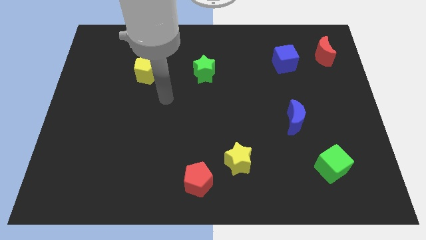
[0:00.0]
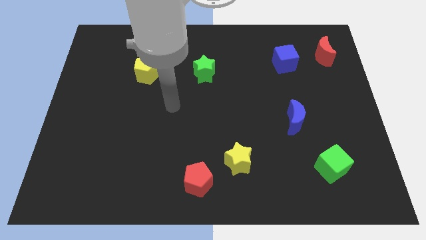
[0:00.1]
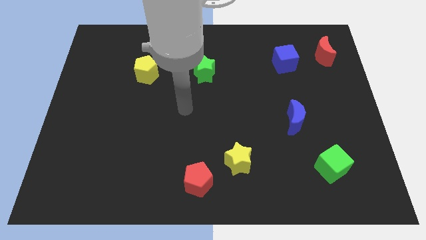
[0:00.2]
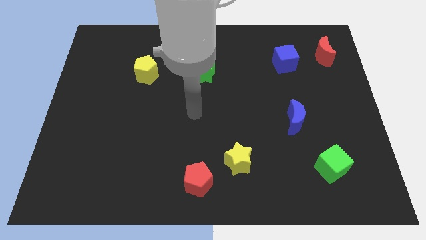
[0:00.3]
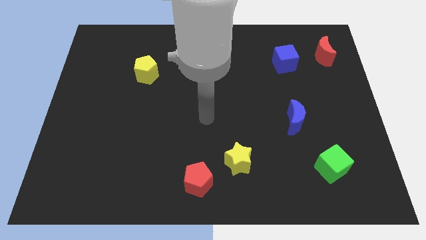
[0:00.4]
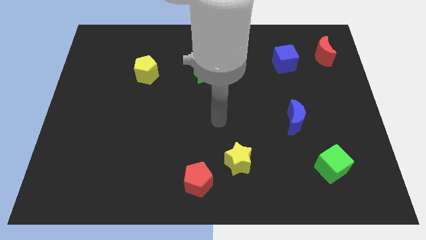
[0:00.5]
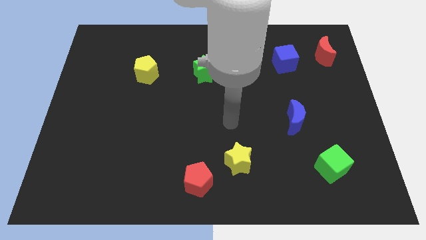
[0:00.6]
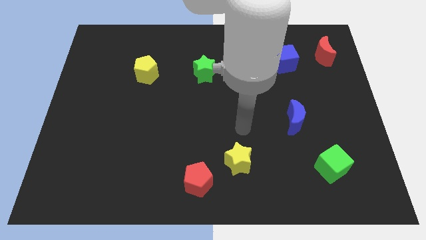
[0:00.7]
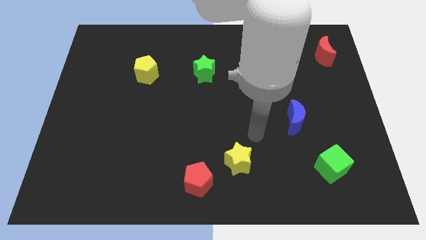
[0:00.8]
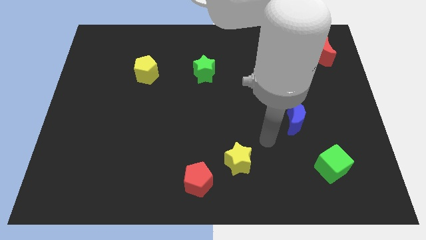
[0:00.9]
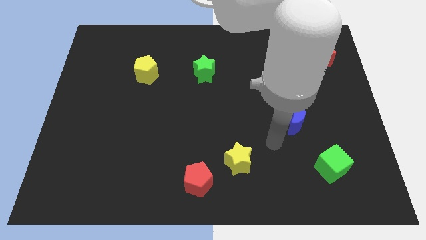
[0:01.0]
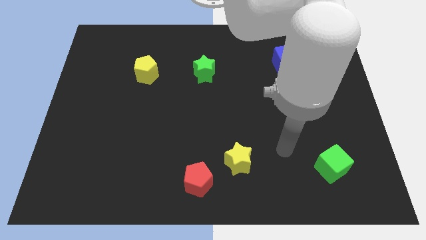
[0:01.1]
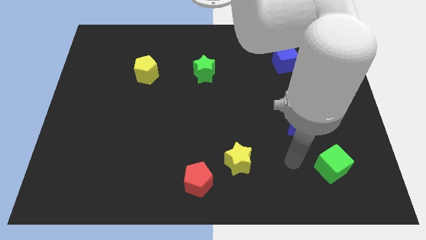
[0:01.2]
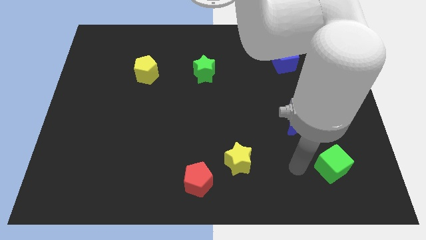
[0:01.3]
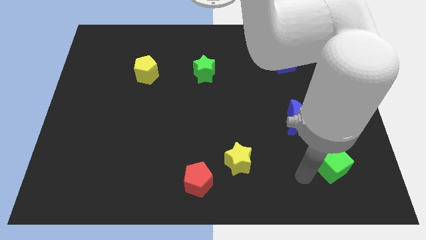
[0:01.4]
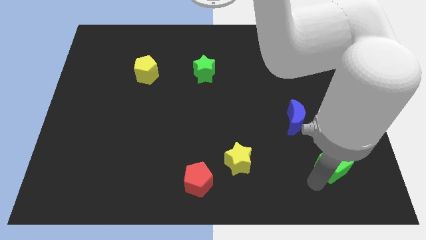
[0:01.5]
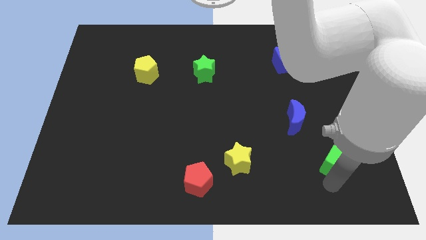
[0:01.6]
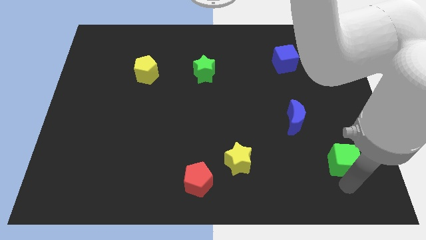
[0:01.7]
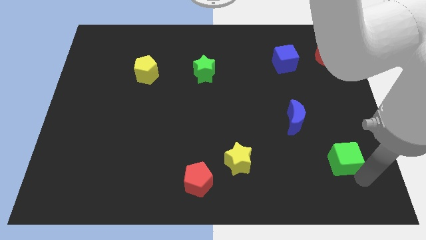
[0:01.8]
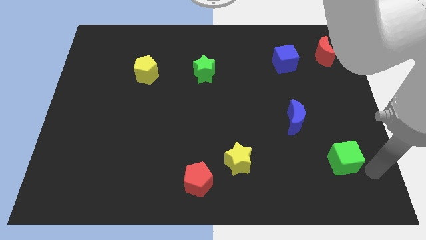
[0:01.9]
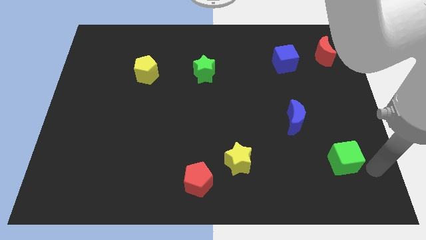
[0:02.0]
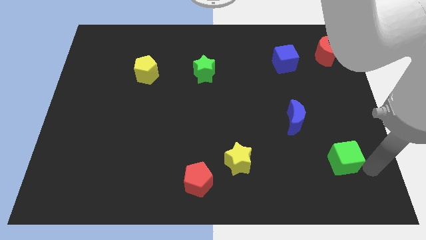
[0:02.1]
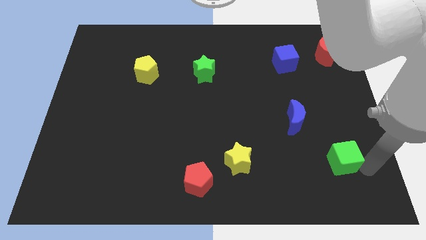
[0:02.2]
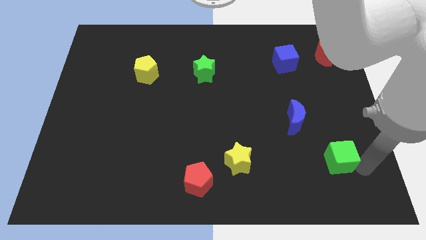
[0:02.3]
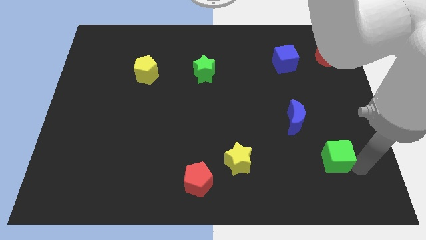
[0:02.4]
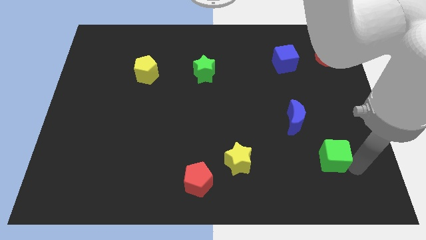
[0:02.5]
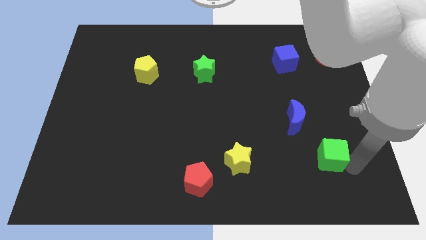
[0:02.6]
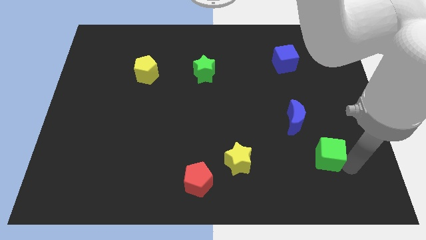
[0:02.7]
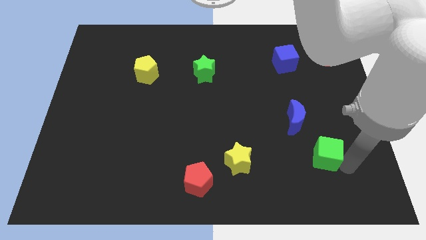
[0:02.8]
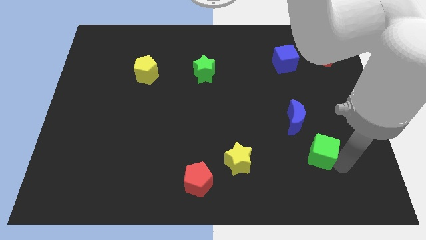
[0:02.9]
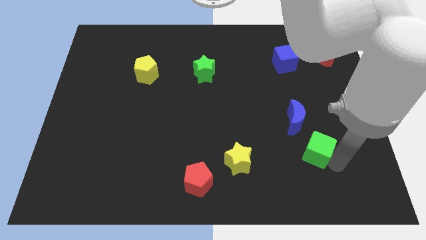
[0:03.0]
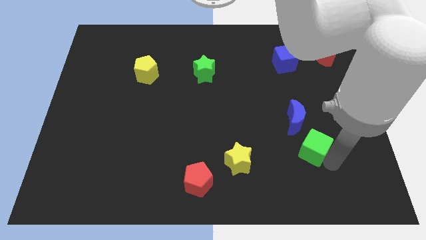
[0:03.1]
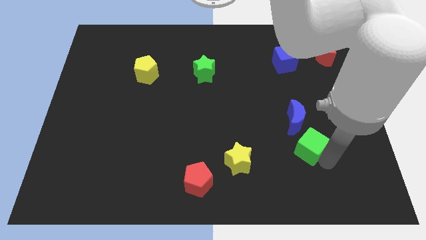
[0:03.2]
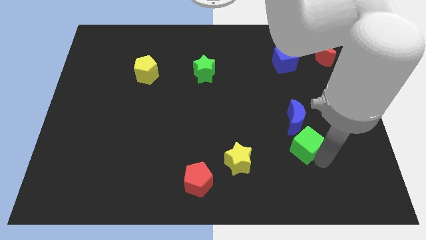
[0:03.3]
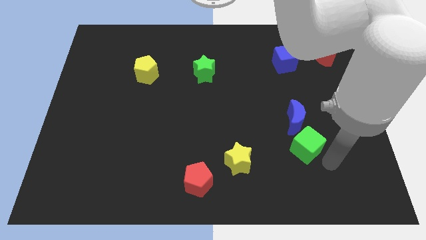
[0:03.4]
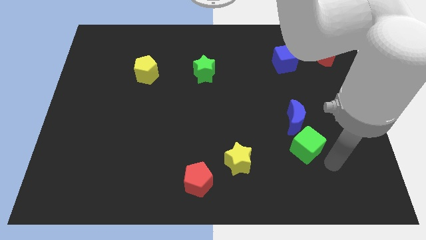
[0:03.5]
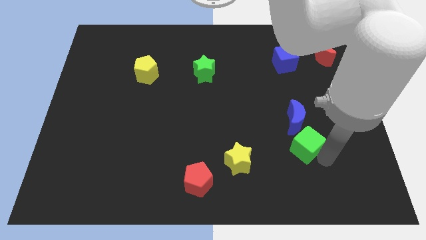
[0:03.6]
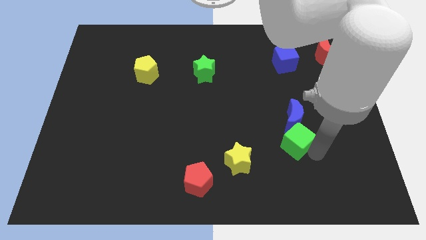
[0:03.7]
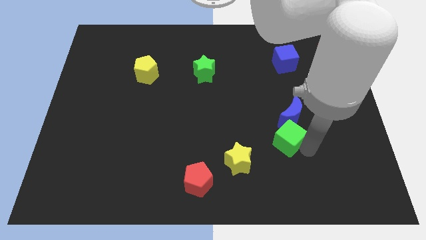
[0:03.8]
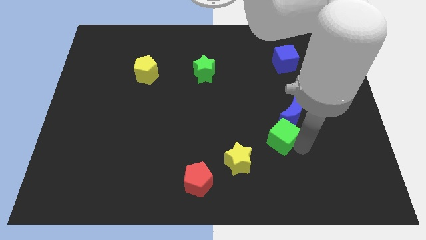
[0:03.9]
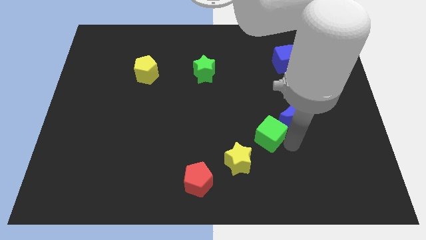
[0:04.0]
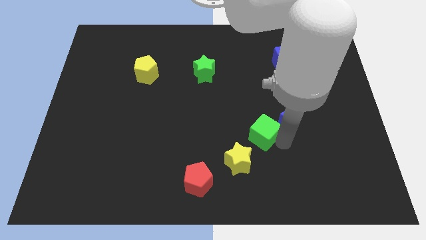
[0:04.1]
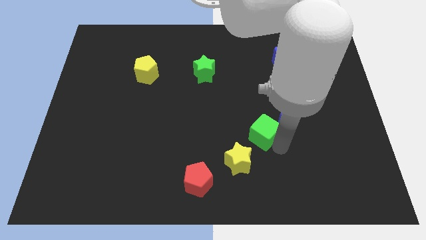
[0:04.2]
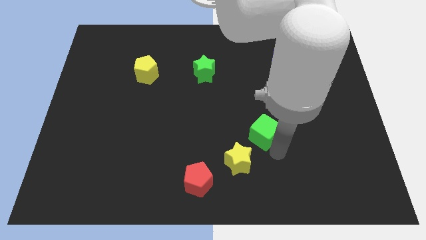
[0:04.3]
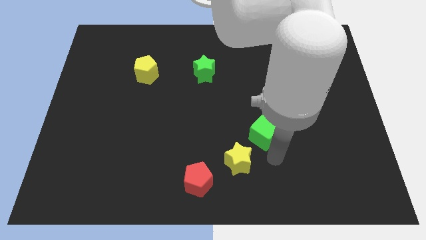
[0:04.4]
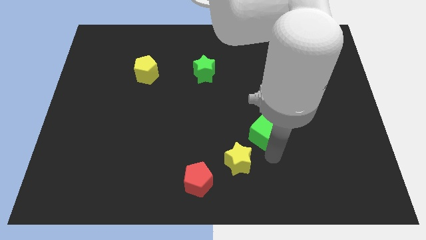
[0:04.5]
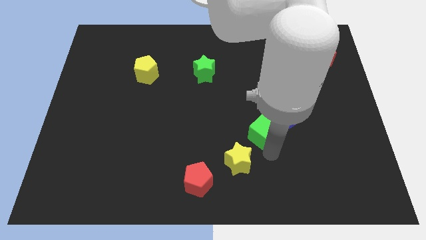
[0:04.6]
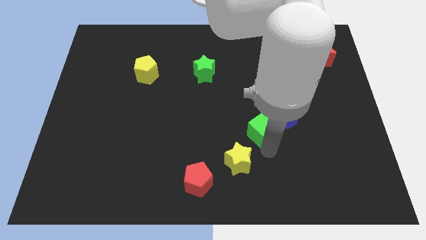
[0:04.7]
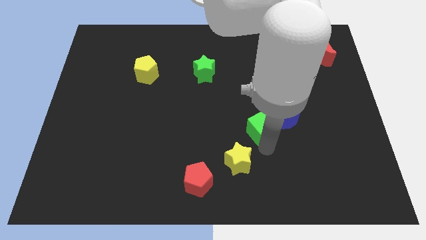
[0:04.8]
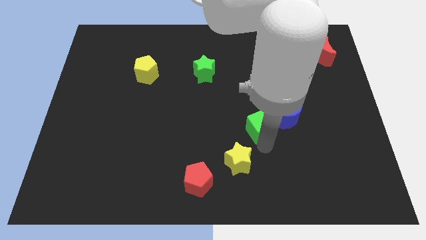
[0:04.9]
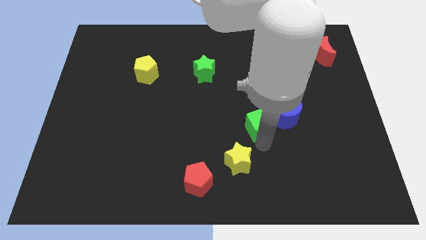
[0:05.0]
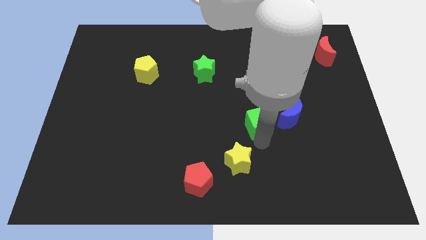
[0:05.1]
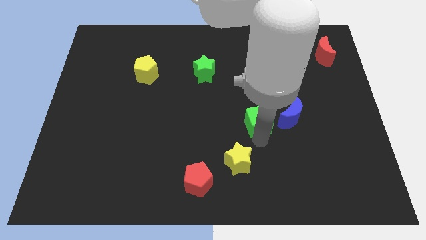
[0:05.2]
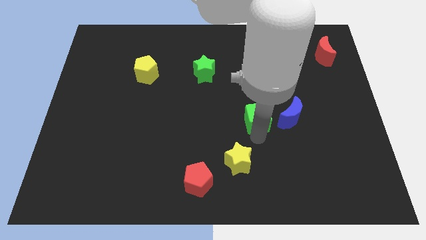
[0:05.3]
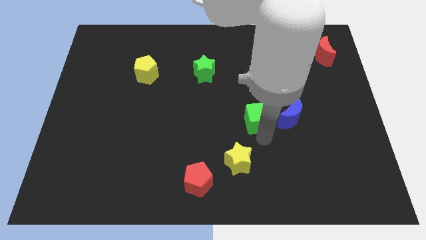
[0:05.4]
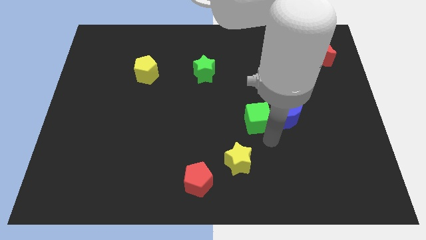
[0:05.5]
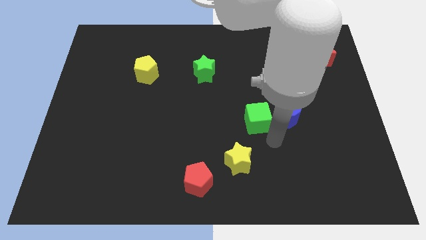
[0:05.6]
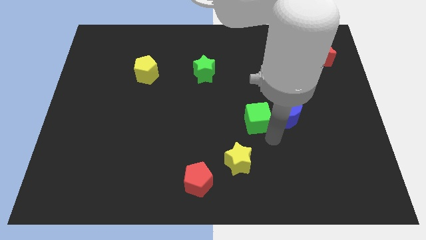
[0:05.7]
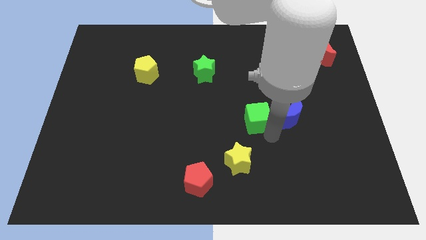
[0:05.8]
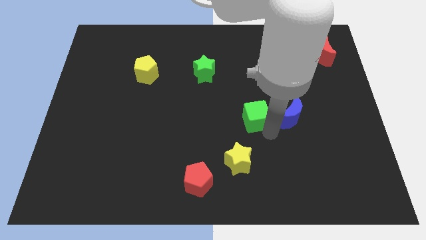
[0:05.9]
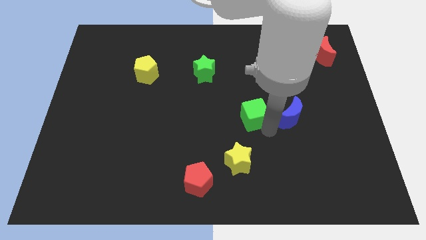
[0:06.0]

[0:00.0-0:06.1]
push the green cube upwards and left diagonally

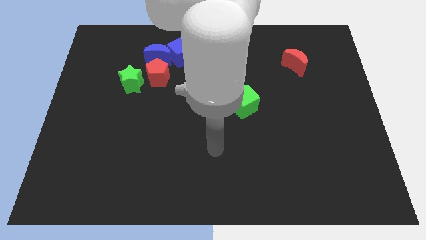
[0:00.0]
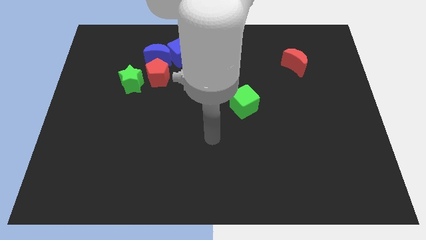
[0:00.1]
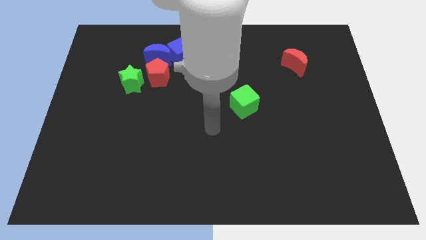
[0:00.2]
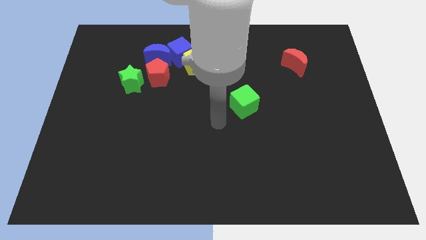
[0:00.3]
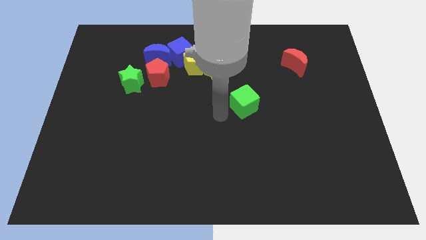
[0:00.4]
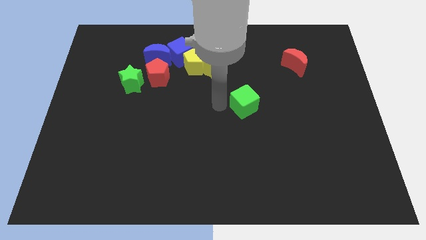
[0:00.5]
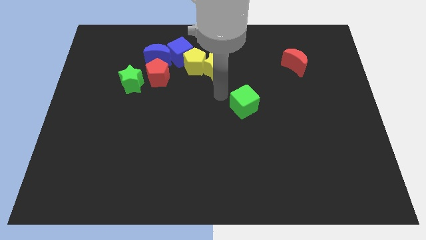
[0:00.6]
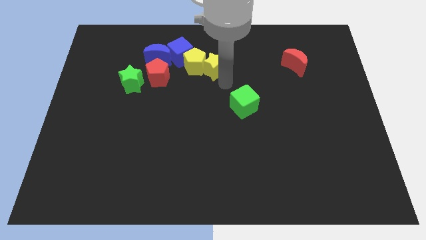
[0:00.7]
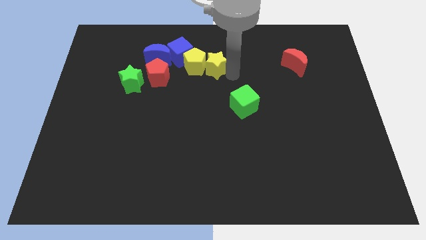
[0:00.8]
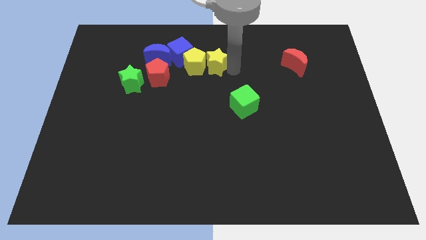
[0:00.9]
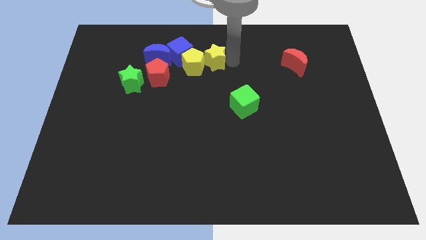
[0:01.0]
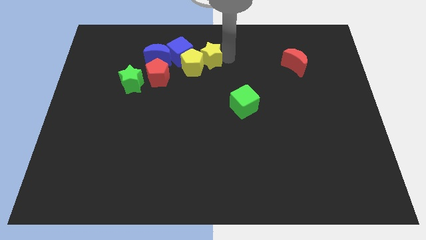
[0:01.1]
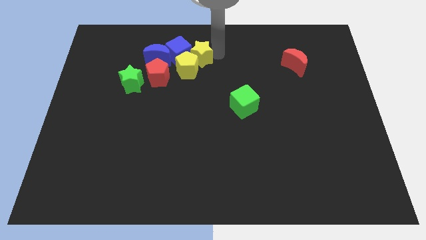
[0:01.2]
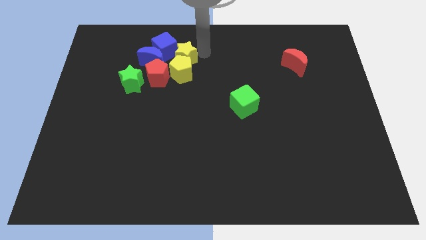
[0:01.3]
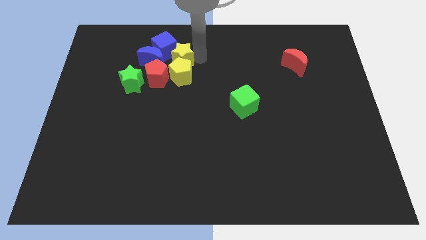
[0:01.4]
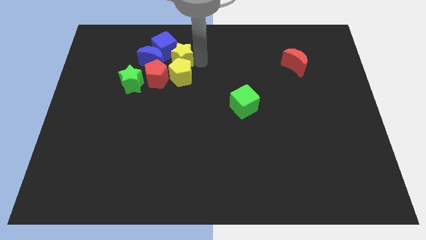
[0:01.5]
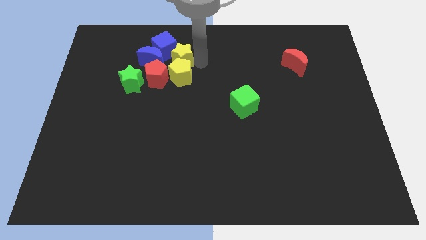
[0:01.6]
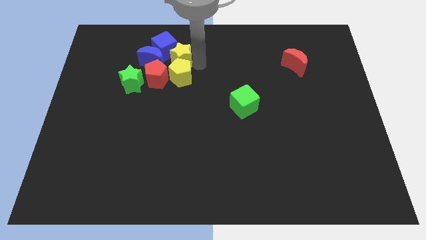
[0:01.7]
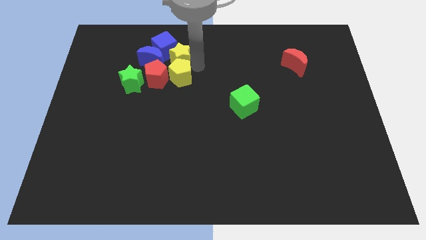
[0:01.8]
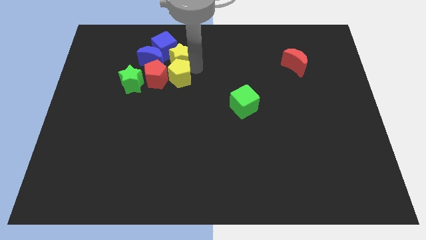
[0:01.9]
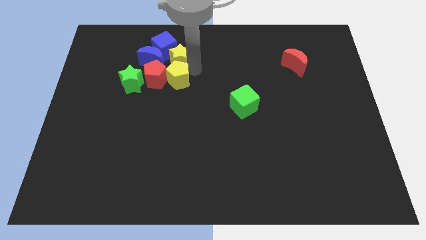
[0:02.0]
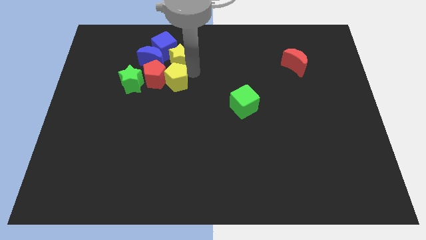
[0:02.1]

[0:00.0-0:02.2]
slide the yellow pentagon downwards and left a little
